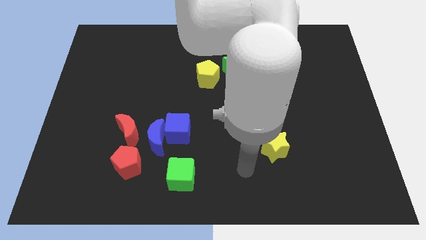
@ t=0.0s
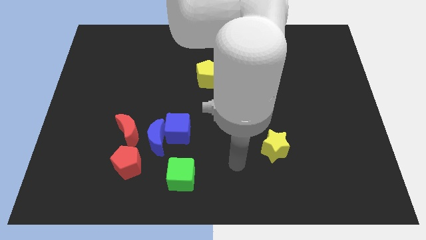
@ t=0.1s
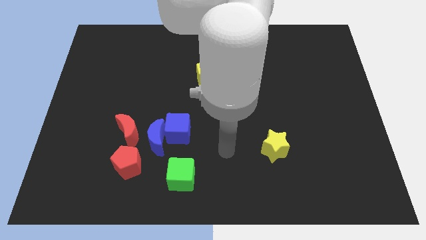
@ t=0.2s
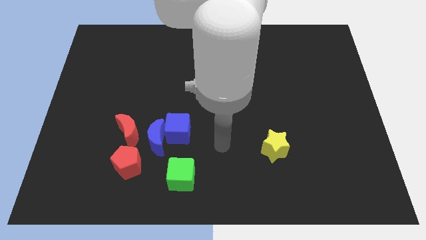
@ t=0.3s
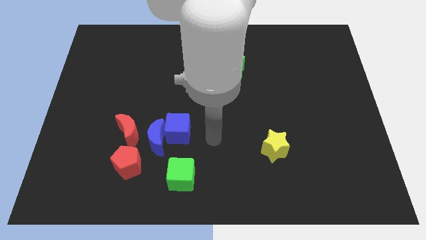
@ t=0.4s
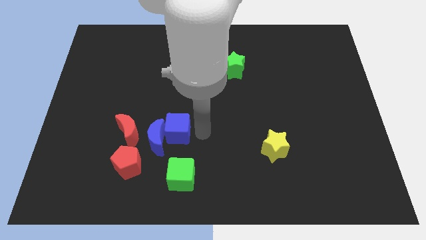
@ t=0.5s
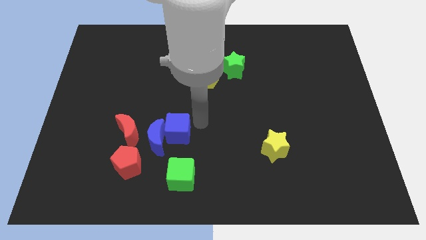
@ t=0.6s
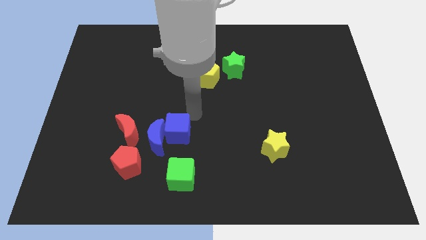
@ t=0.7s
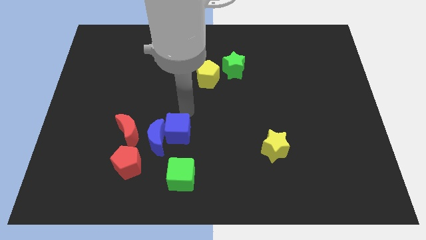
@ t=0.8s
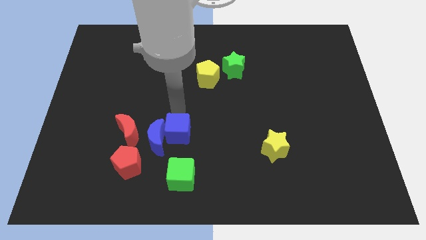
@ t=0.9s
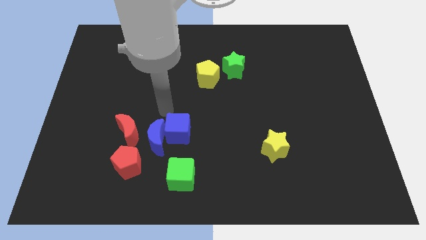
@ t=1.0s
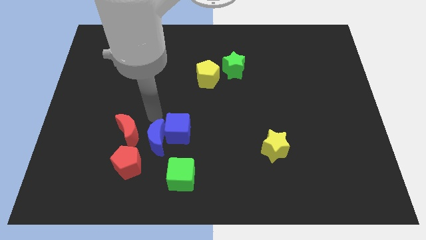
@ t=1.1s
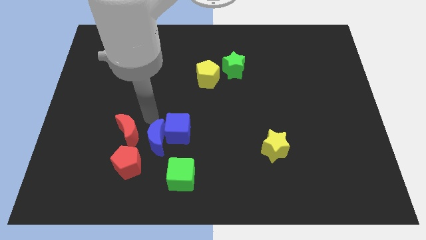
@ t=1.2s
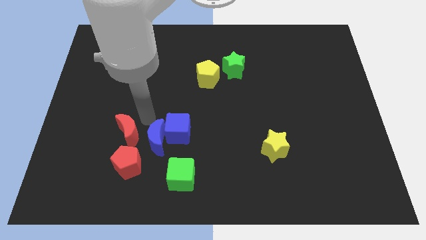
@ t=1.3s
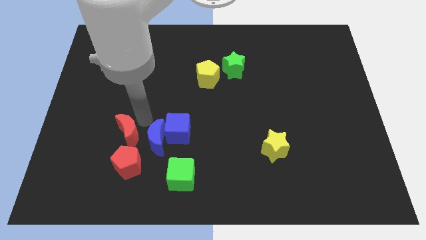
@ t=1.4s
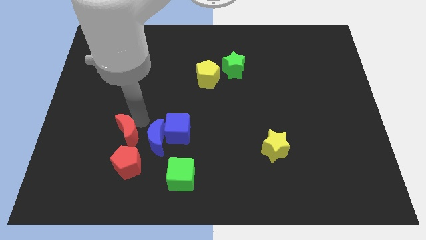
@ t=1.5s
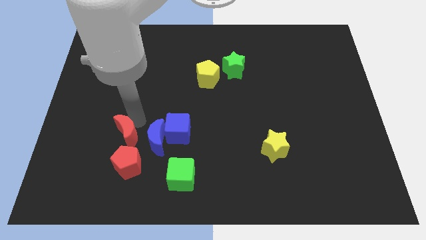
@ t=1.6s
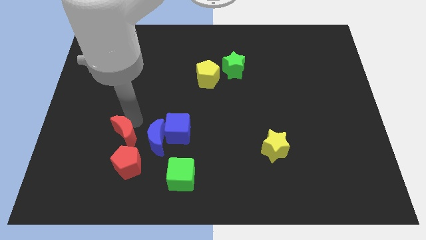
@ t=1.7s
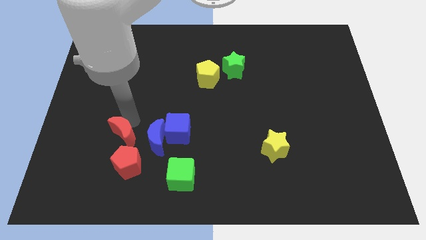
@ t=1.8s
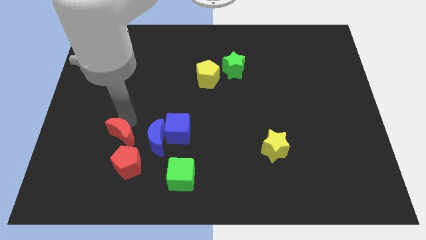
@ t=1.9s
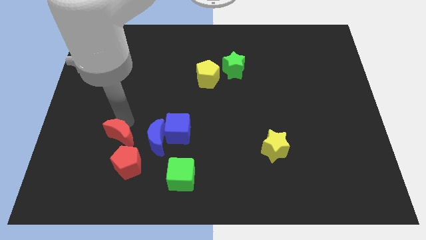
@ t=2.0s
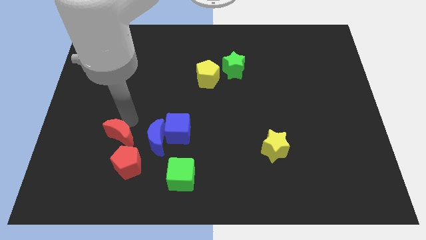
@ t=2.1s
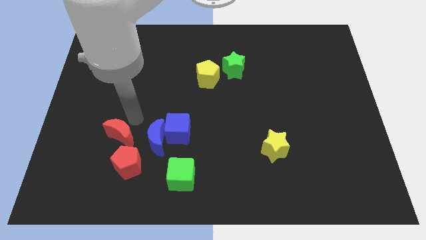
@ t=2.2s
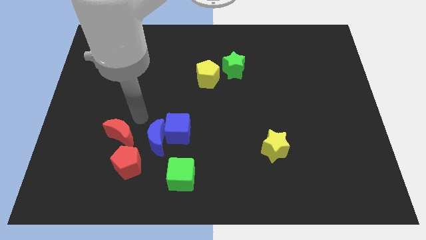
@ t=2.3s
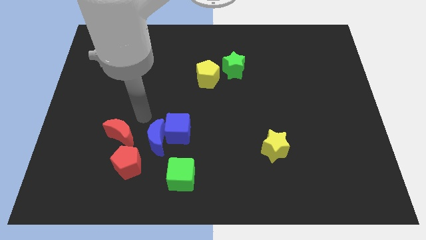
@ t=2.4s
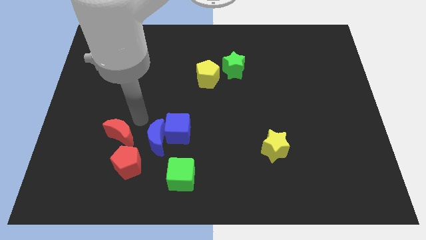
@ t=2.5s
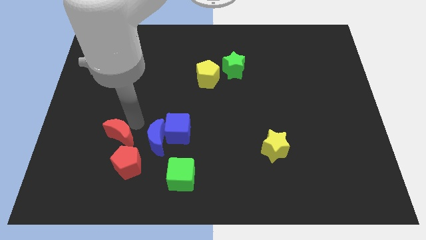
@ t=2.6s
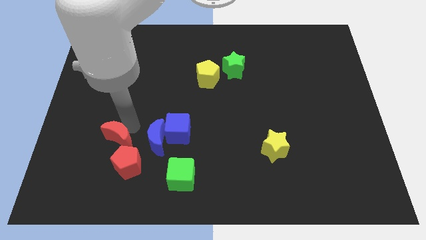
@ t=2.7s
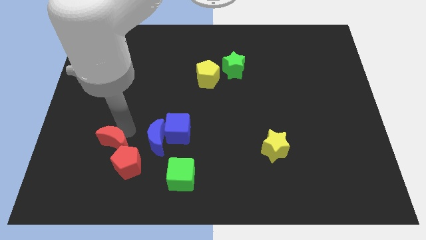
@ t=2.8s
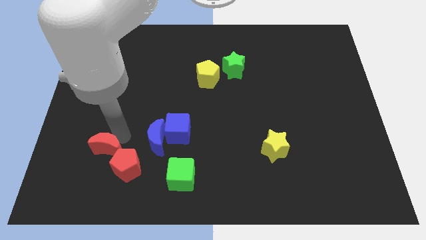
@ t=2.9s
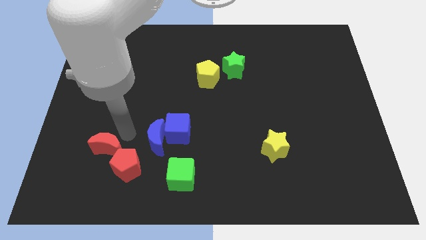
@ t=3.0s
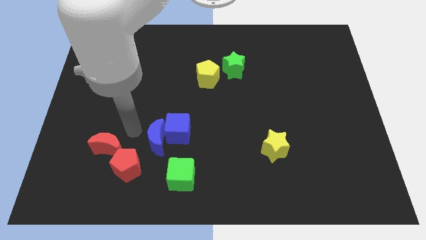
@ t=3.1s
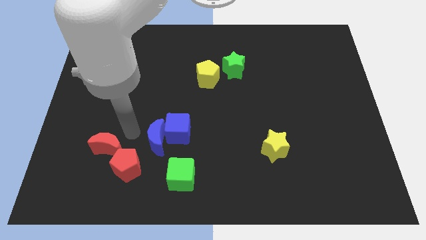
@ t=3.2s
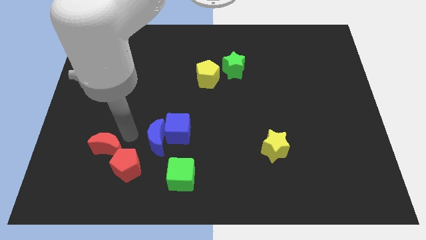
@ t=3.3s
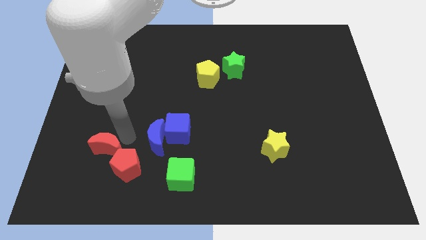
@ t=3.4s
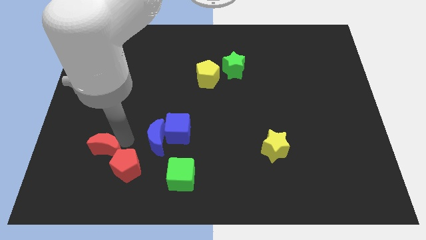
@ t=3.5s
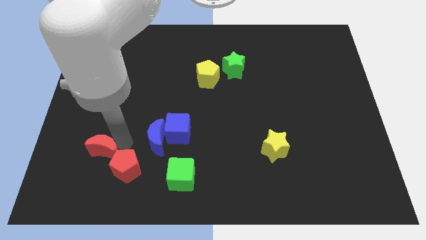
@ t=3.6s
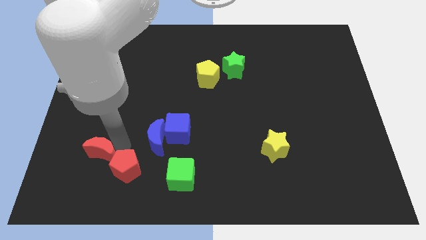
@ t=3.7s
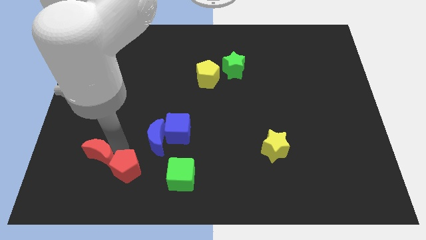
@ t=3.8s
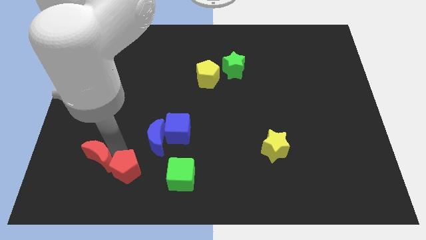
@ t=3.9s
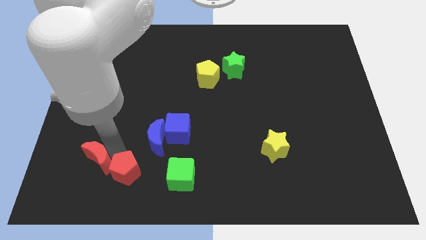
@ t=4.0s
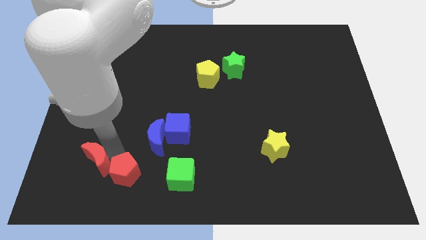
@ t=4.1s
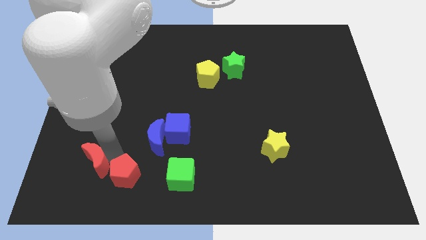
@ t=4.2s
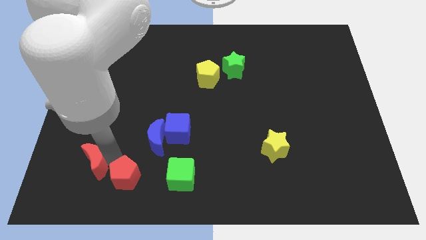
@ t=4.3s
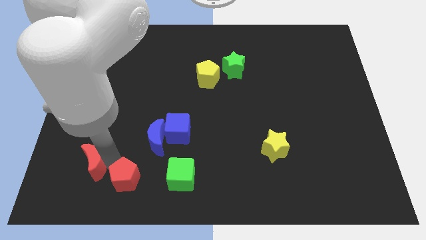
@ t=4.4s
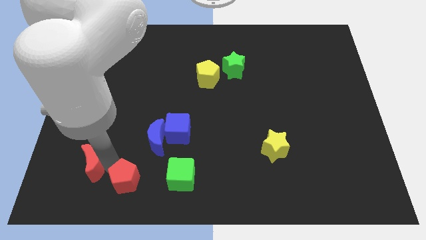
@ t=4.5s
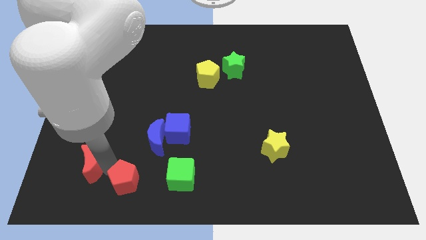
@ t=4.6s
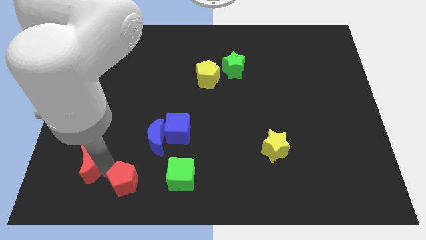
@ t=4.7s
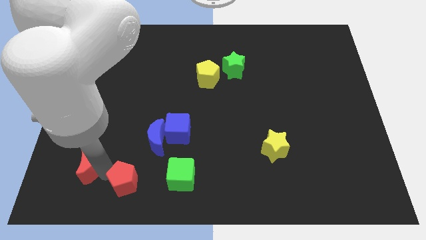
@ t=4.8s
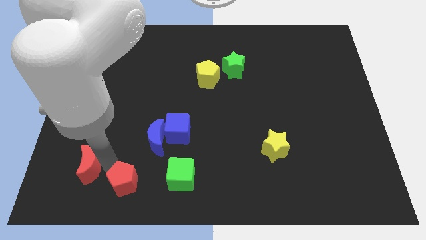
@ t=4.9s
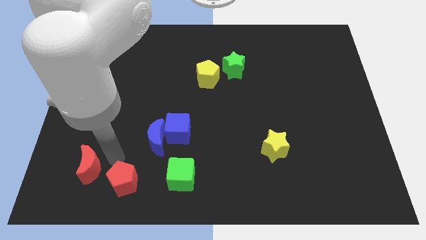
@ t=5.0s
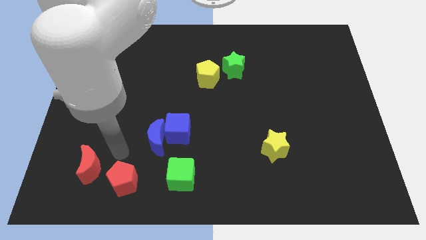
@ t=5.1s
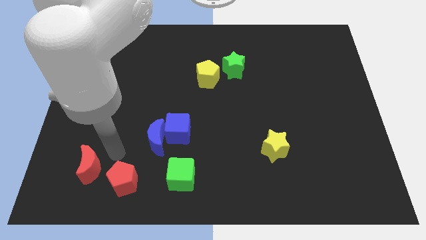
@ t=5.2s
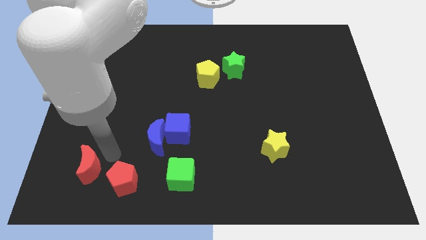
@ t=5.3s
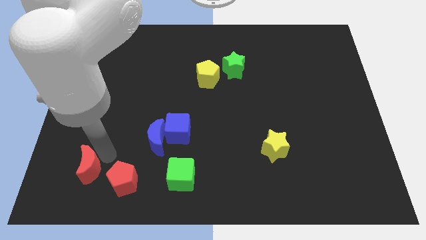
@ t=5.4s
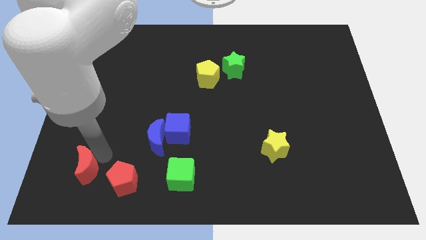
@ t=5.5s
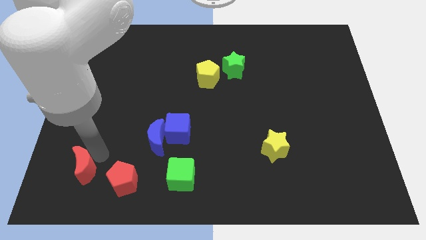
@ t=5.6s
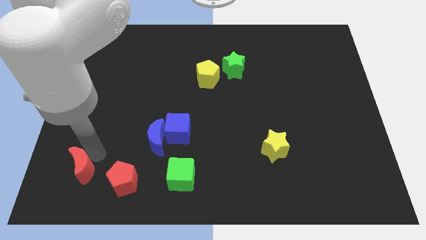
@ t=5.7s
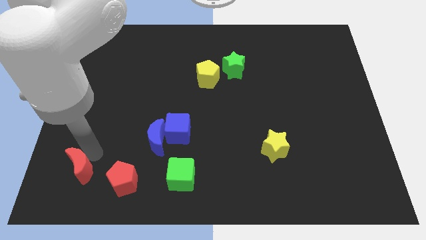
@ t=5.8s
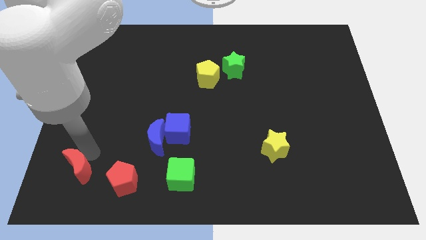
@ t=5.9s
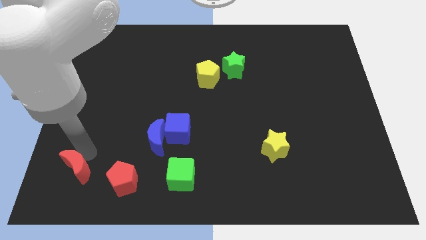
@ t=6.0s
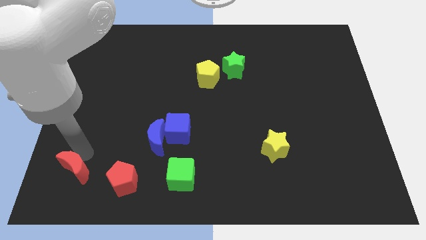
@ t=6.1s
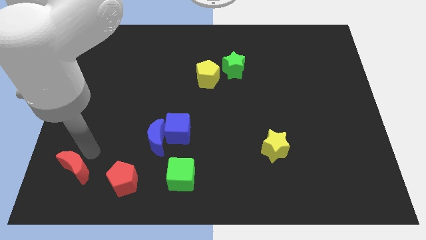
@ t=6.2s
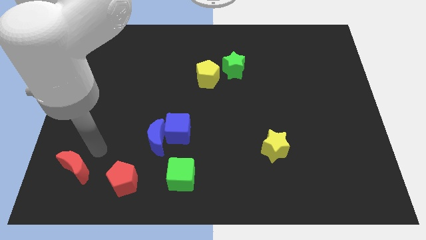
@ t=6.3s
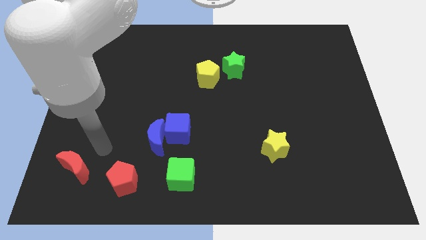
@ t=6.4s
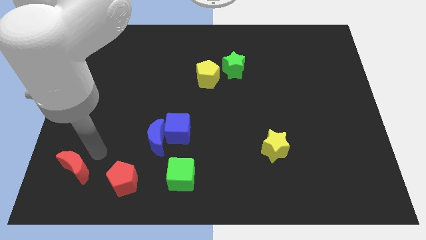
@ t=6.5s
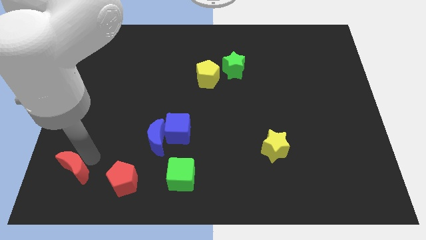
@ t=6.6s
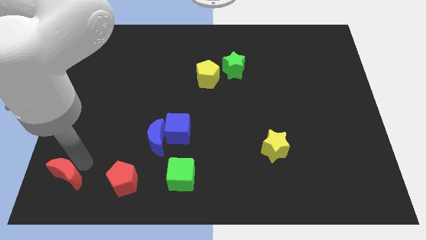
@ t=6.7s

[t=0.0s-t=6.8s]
move the red moon to the bottom left

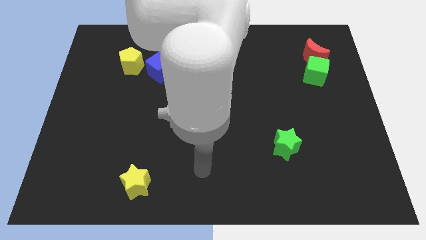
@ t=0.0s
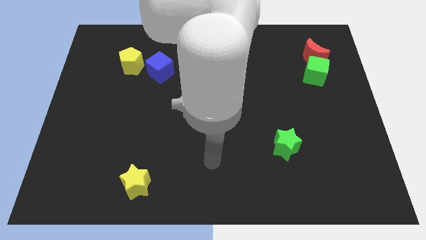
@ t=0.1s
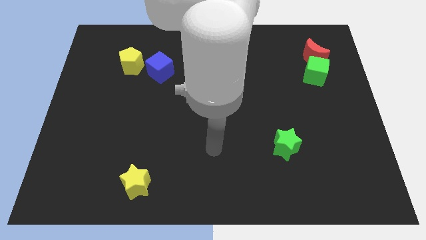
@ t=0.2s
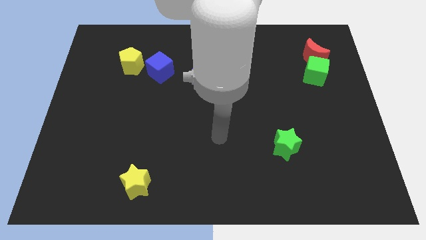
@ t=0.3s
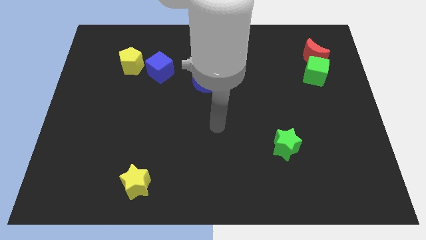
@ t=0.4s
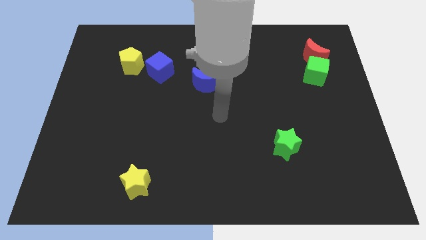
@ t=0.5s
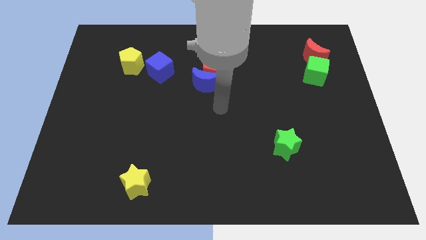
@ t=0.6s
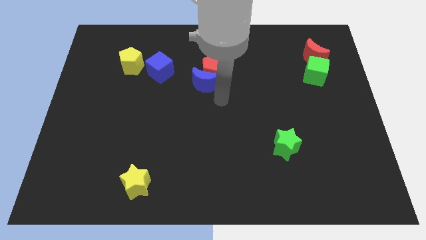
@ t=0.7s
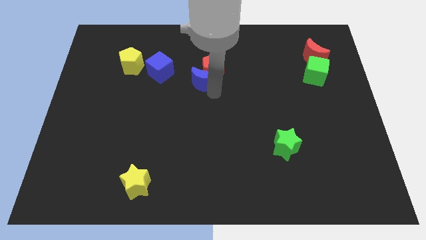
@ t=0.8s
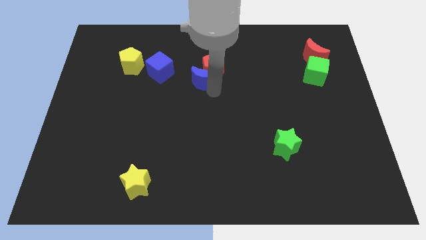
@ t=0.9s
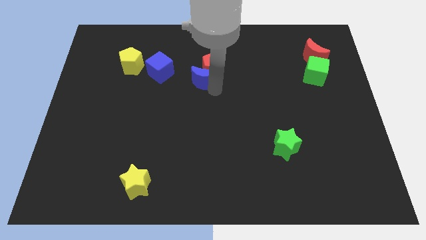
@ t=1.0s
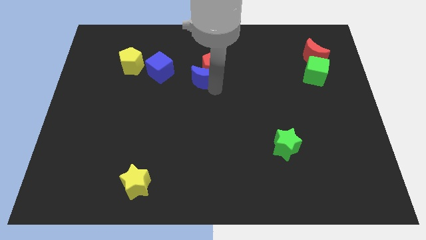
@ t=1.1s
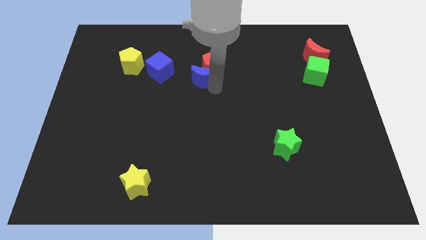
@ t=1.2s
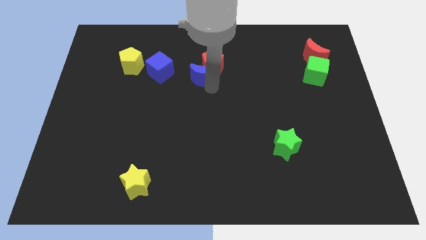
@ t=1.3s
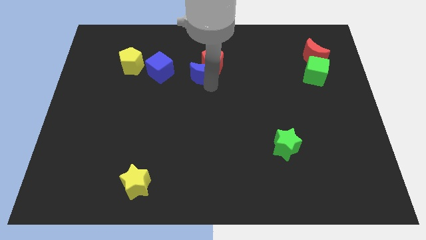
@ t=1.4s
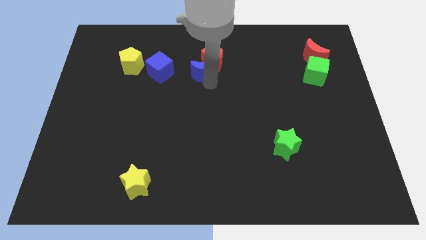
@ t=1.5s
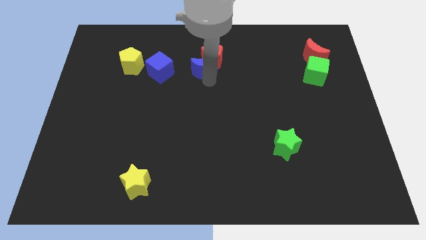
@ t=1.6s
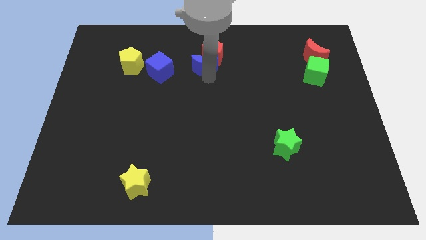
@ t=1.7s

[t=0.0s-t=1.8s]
slide the red pentagon to the towards your base
